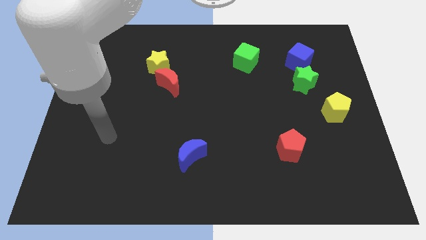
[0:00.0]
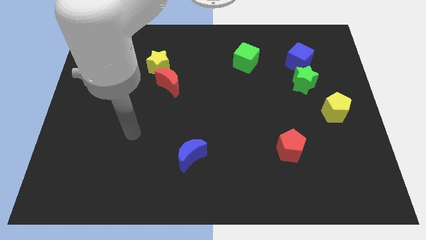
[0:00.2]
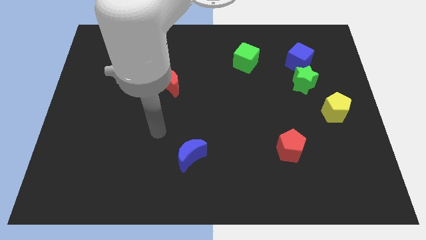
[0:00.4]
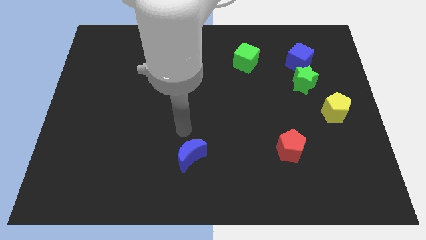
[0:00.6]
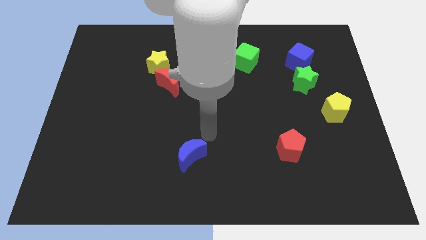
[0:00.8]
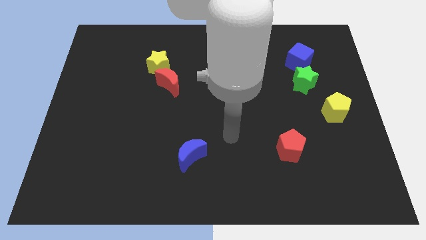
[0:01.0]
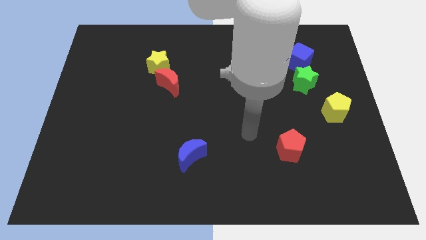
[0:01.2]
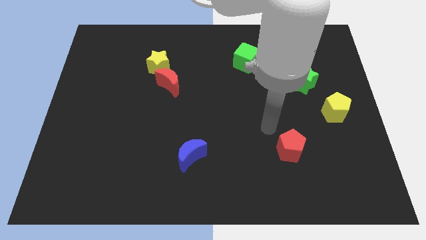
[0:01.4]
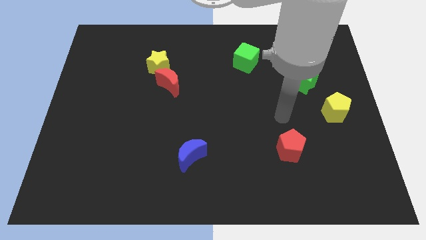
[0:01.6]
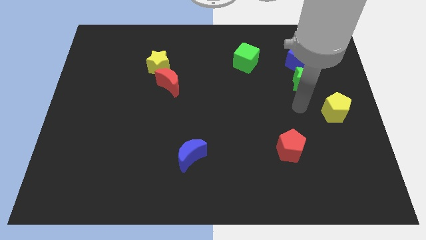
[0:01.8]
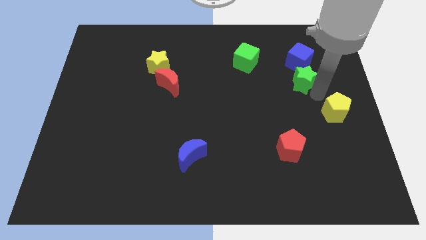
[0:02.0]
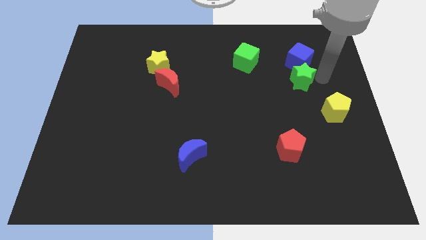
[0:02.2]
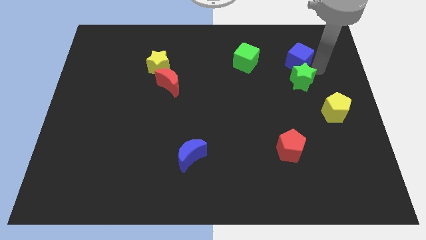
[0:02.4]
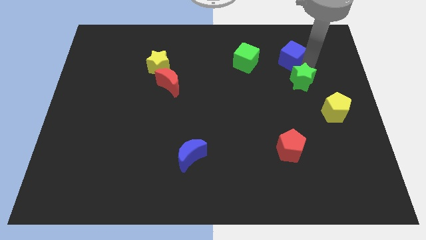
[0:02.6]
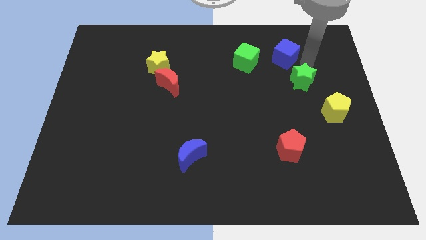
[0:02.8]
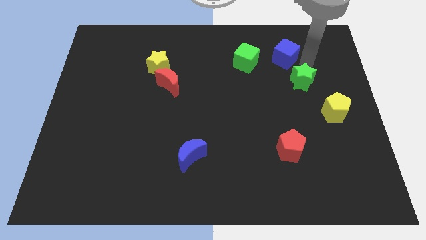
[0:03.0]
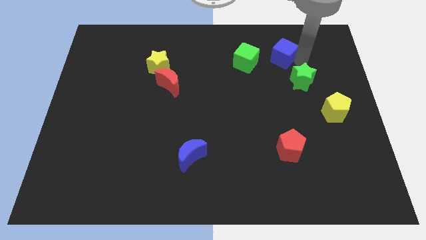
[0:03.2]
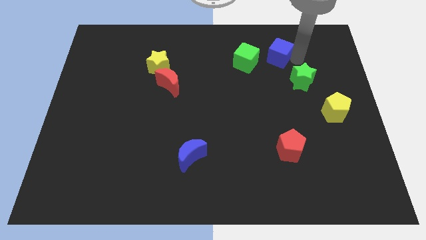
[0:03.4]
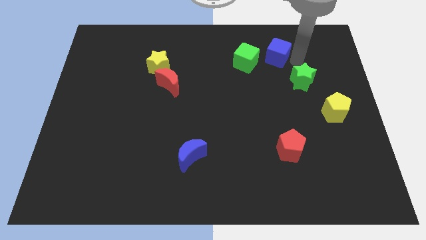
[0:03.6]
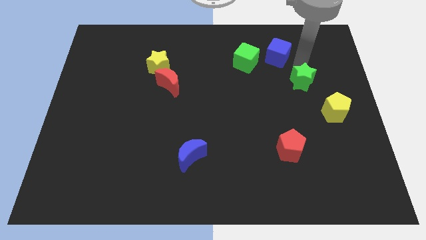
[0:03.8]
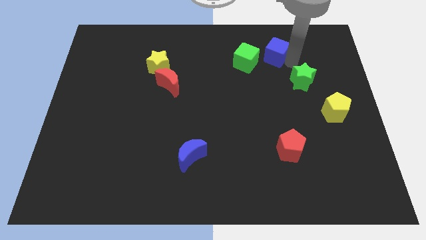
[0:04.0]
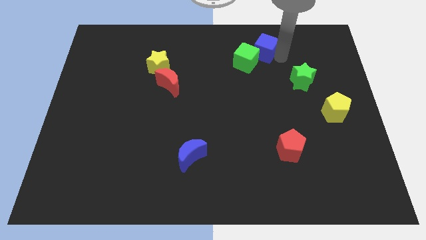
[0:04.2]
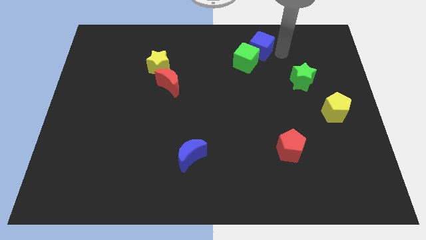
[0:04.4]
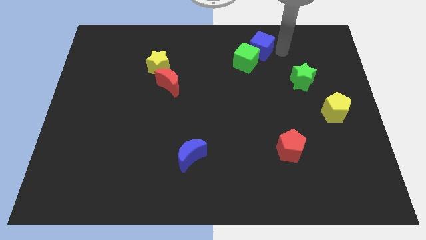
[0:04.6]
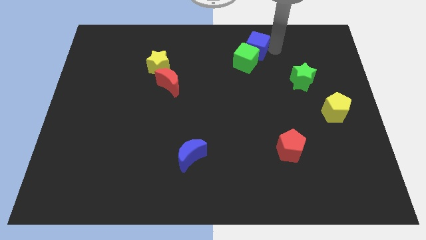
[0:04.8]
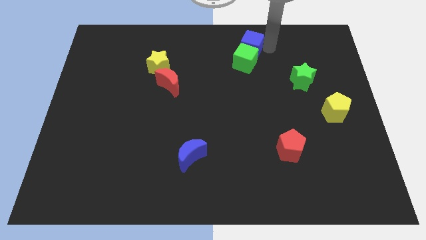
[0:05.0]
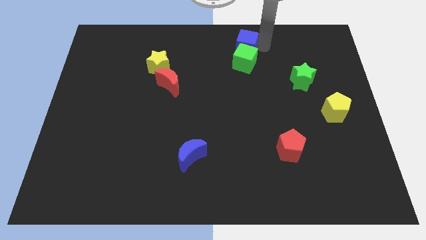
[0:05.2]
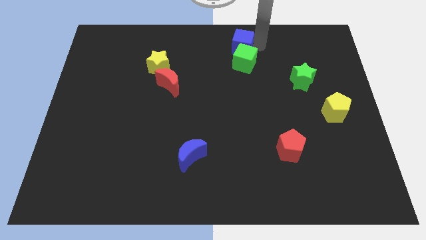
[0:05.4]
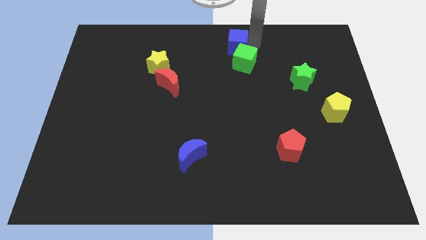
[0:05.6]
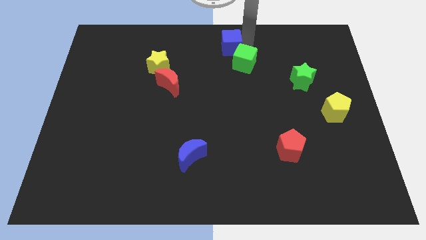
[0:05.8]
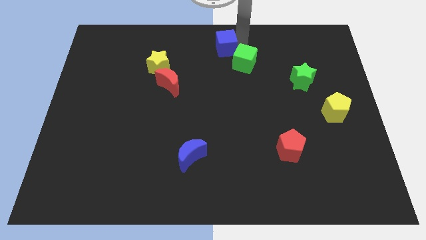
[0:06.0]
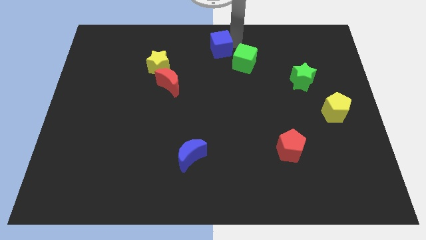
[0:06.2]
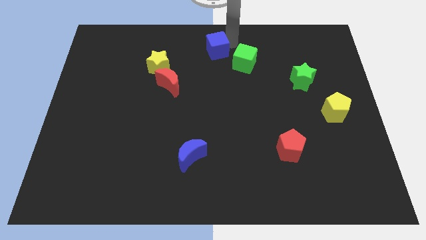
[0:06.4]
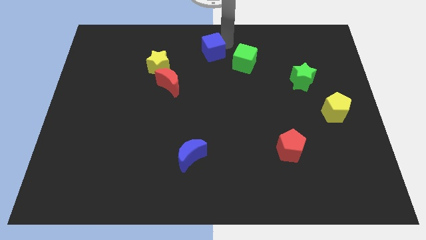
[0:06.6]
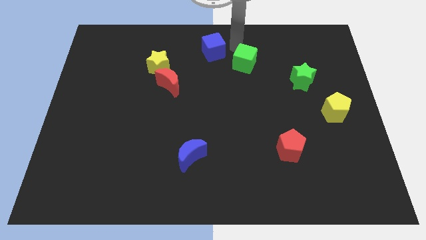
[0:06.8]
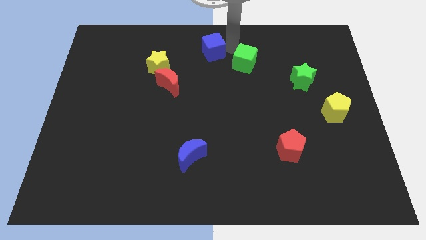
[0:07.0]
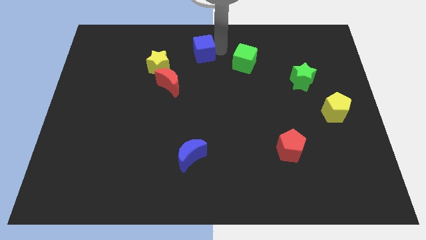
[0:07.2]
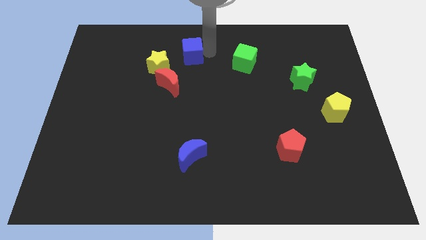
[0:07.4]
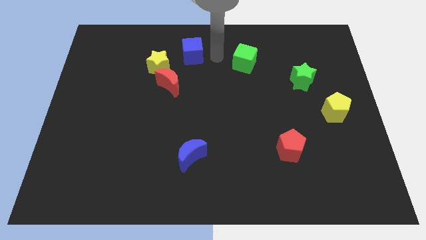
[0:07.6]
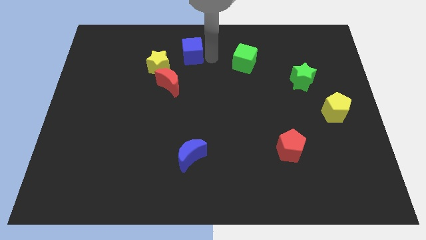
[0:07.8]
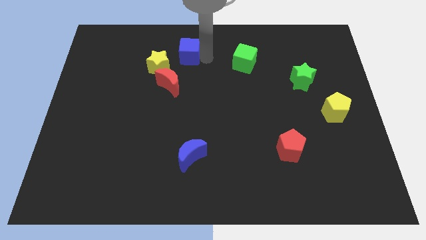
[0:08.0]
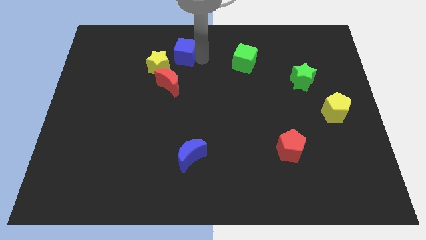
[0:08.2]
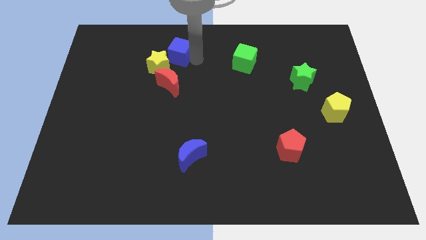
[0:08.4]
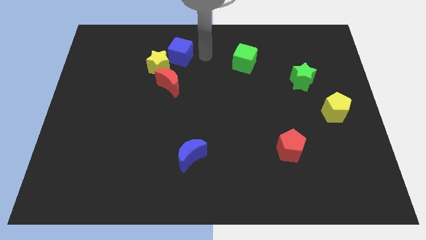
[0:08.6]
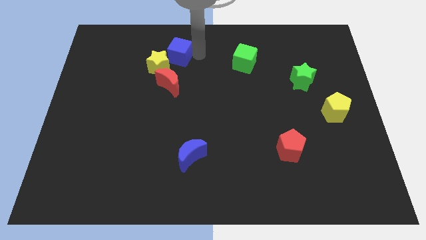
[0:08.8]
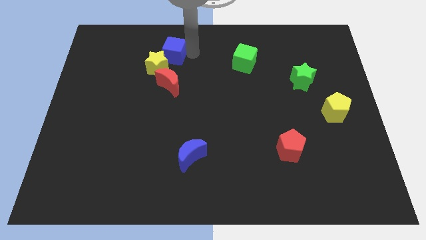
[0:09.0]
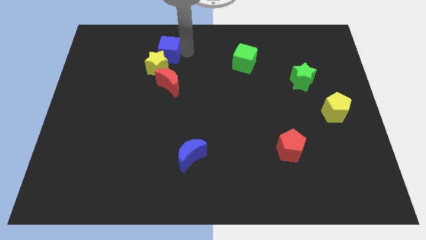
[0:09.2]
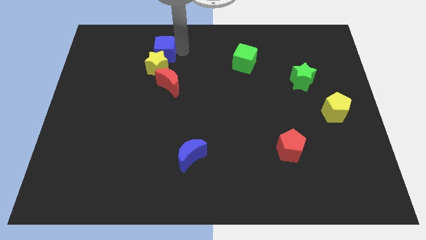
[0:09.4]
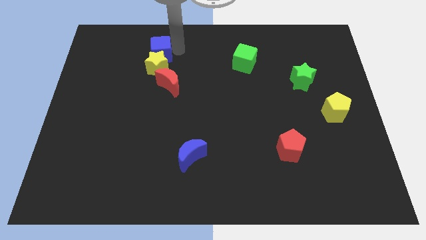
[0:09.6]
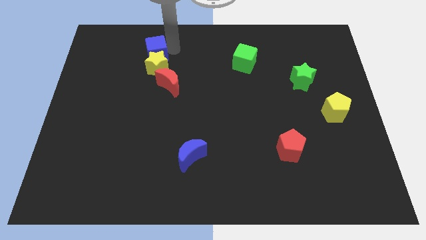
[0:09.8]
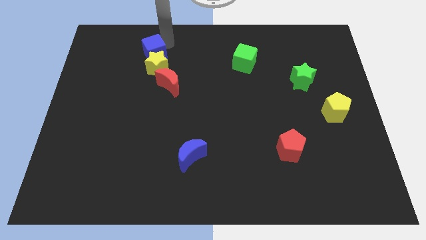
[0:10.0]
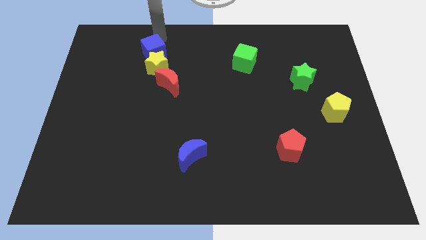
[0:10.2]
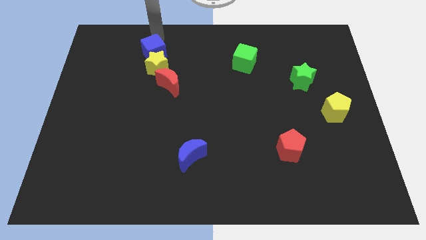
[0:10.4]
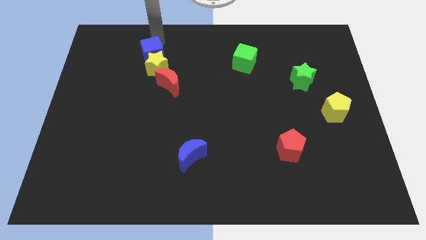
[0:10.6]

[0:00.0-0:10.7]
slide the blue cube to the top left of the red moon

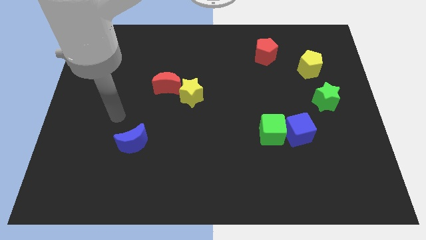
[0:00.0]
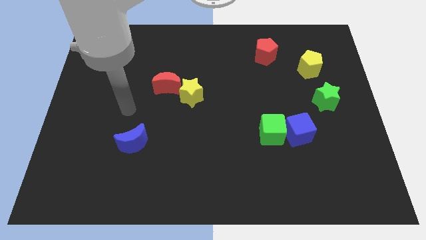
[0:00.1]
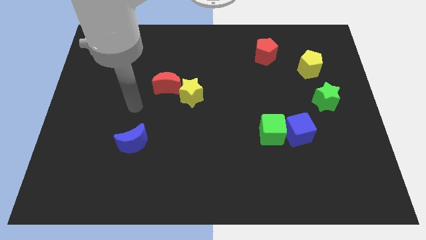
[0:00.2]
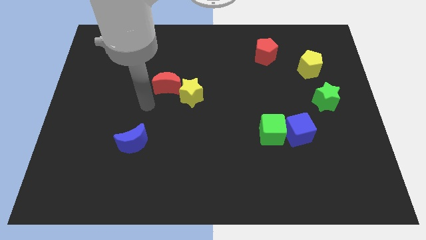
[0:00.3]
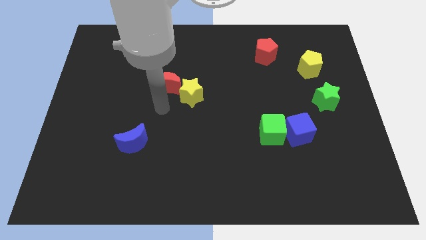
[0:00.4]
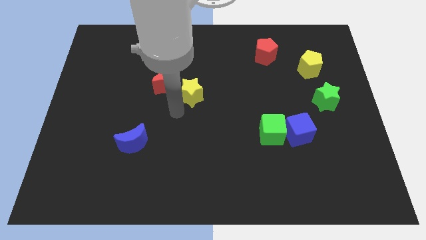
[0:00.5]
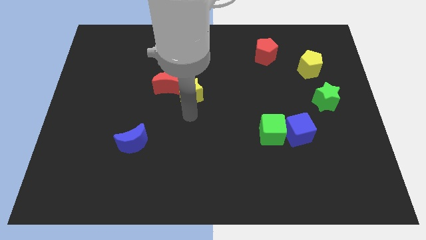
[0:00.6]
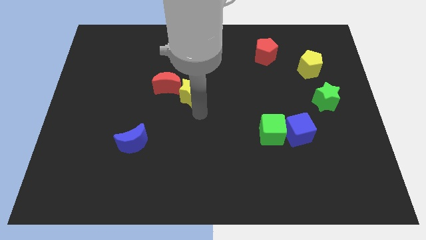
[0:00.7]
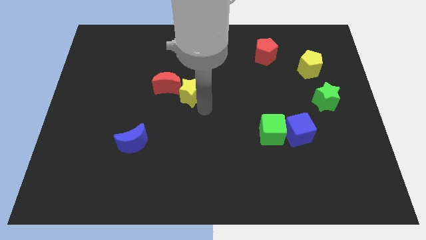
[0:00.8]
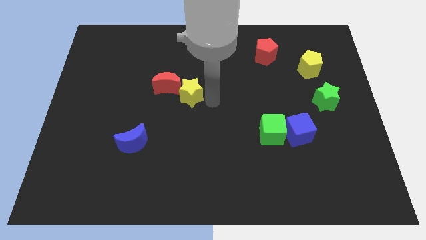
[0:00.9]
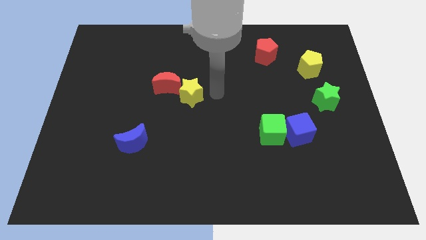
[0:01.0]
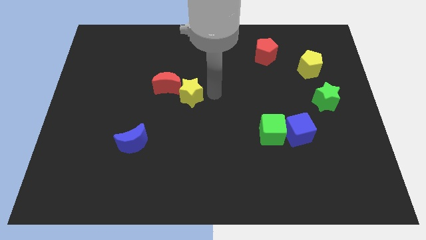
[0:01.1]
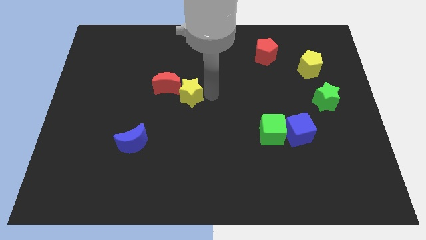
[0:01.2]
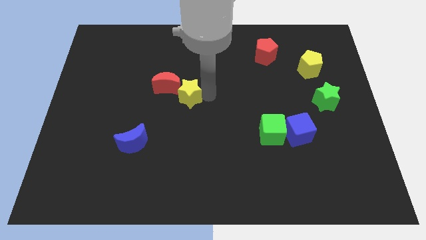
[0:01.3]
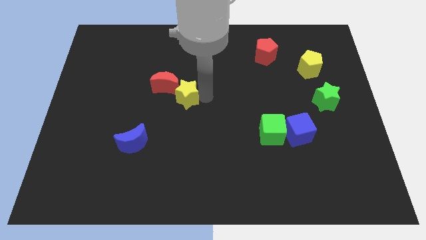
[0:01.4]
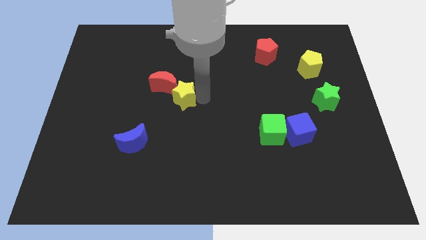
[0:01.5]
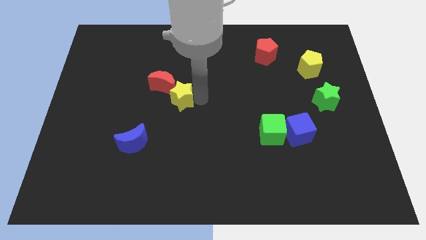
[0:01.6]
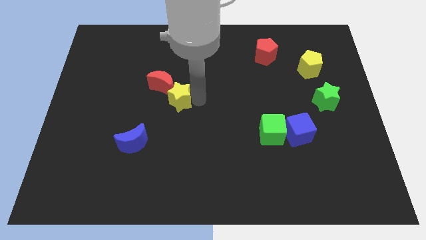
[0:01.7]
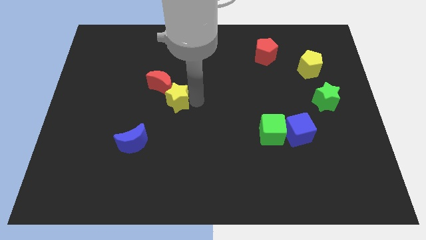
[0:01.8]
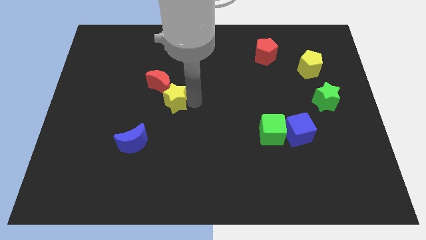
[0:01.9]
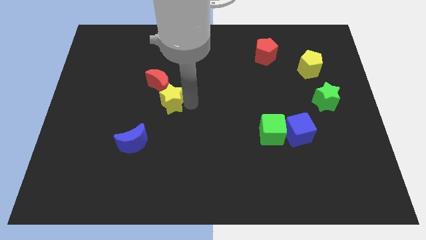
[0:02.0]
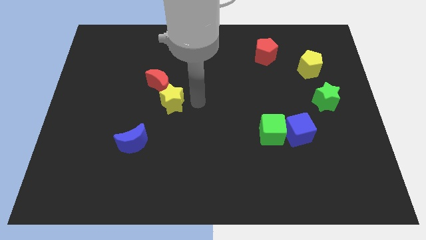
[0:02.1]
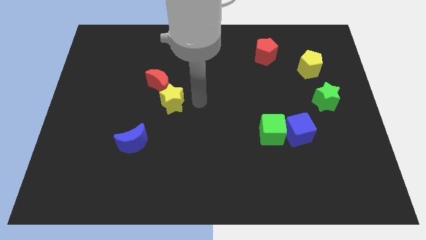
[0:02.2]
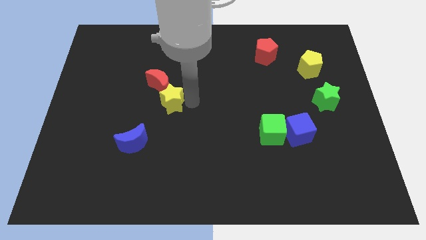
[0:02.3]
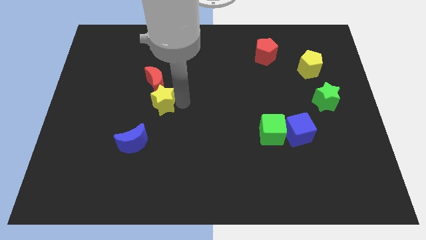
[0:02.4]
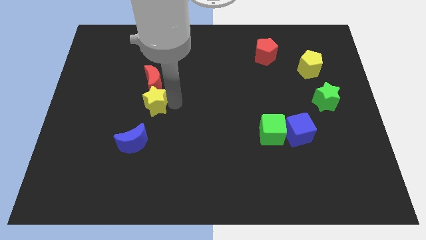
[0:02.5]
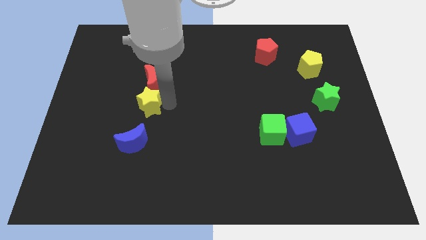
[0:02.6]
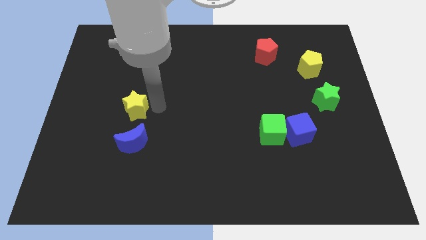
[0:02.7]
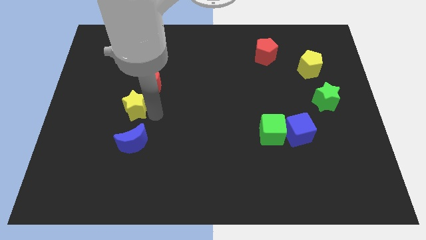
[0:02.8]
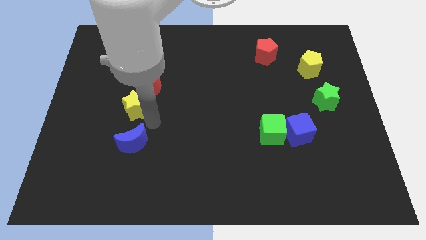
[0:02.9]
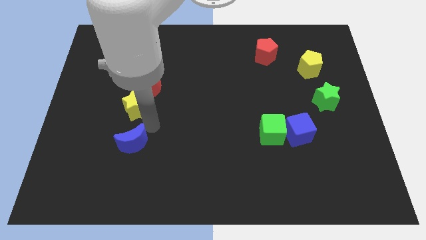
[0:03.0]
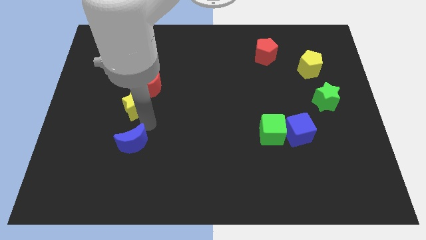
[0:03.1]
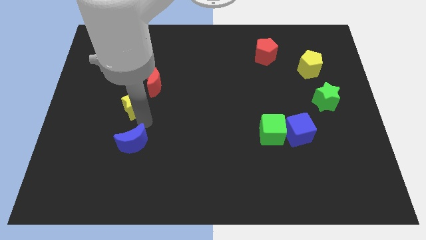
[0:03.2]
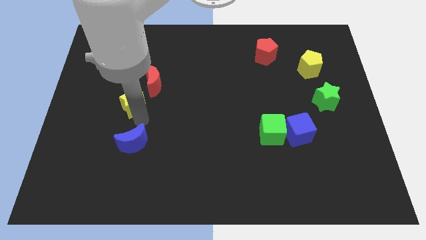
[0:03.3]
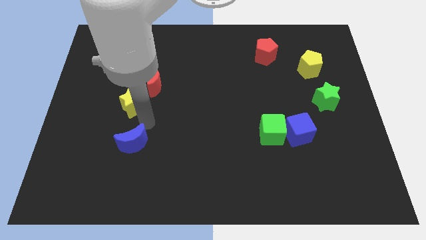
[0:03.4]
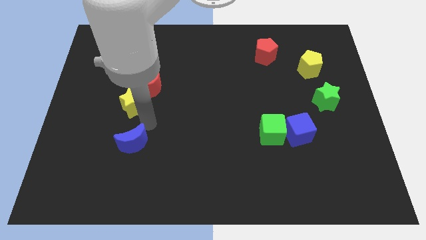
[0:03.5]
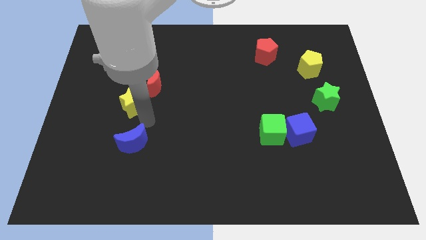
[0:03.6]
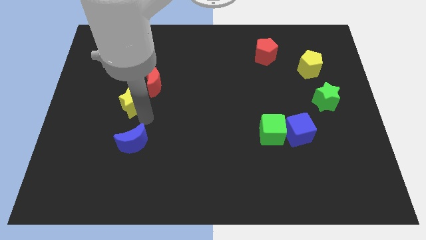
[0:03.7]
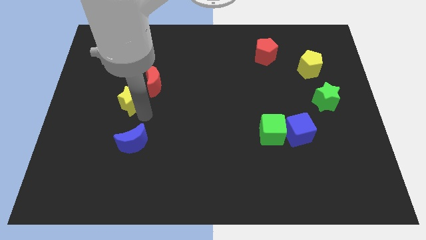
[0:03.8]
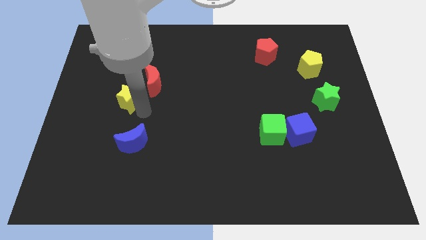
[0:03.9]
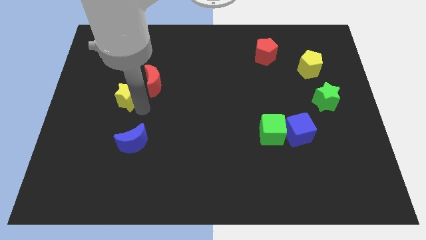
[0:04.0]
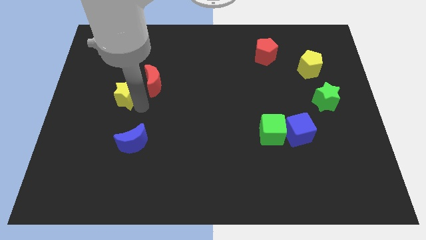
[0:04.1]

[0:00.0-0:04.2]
put the yellow star to the left side of the red moon
